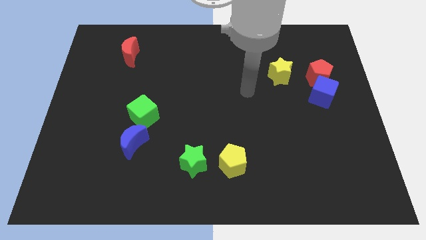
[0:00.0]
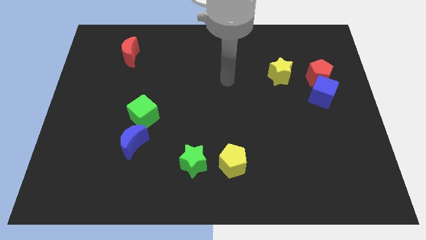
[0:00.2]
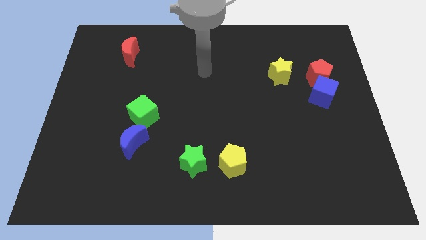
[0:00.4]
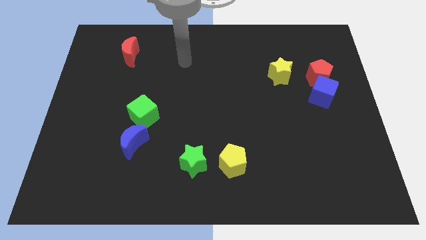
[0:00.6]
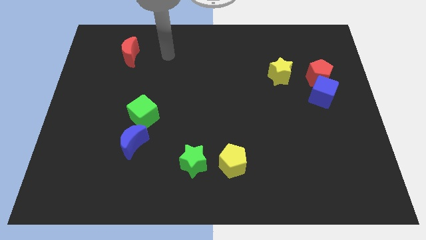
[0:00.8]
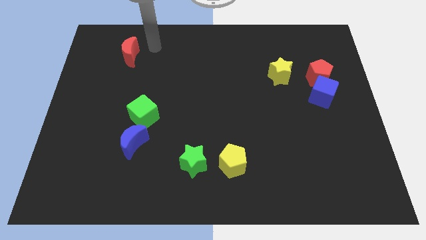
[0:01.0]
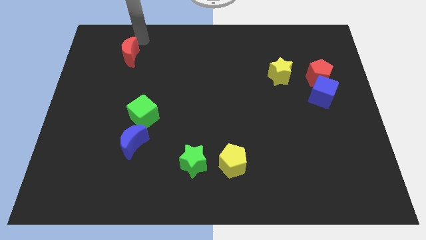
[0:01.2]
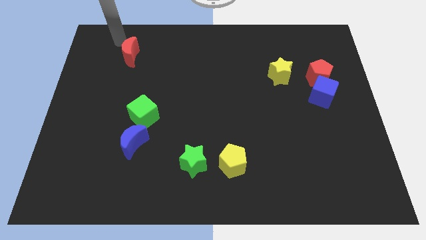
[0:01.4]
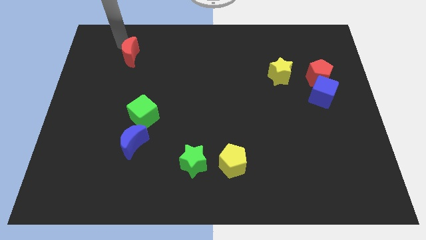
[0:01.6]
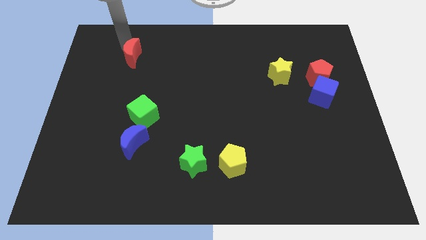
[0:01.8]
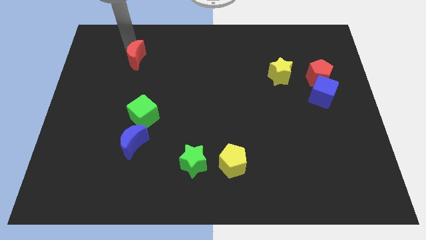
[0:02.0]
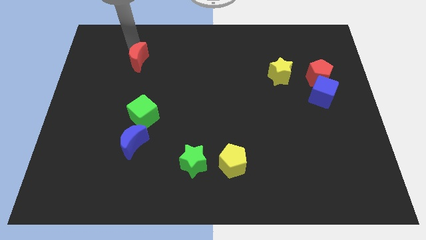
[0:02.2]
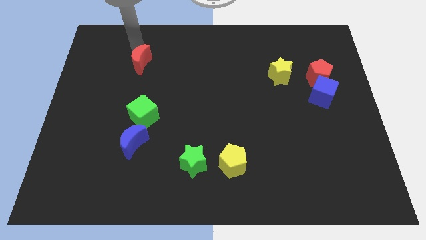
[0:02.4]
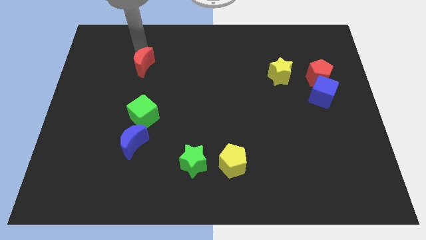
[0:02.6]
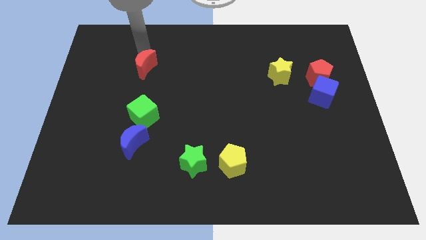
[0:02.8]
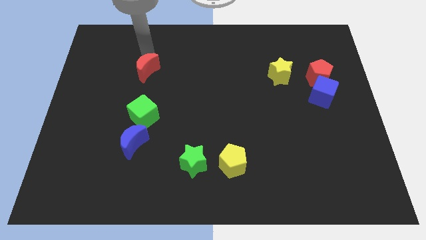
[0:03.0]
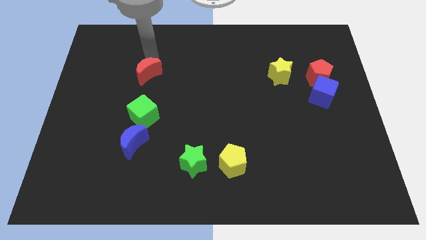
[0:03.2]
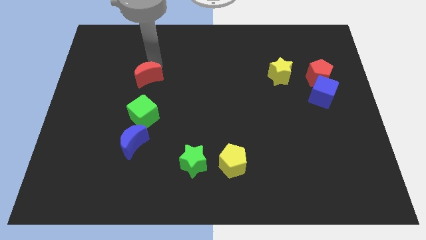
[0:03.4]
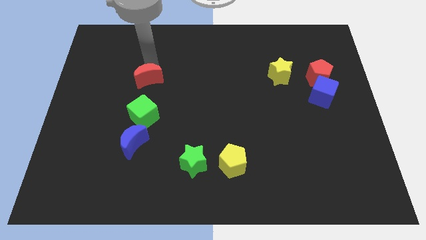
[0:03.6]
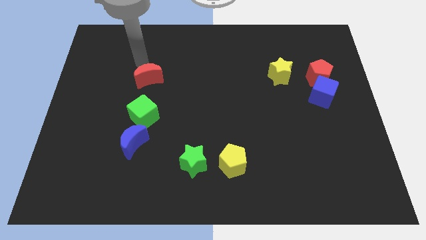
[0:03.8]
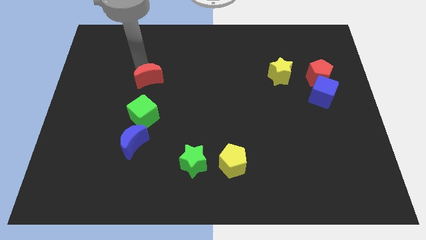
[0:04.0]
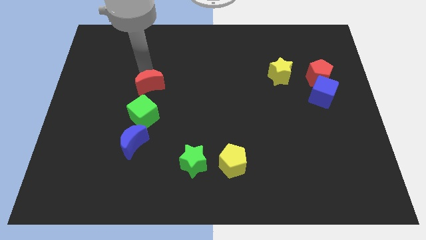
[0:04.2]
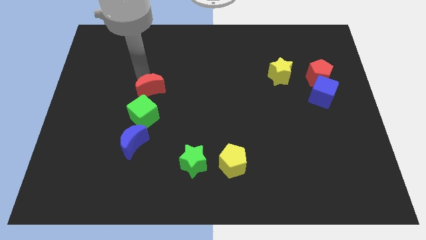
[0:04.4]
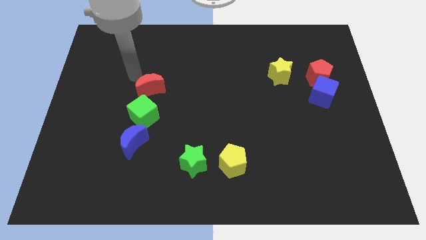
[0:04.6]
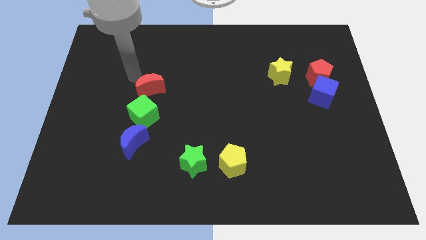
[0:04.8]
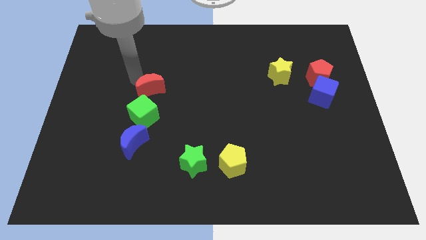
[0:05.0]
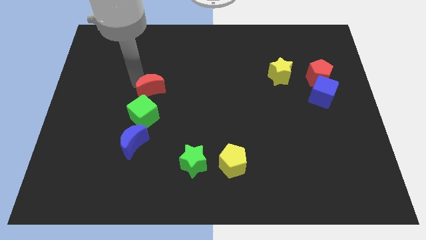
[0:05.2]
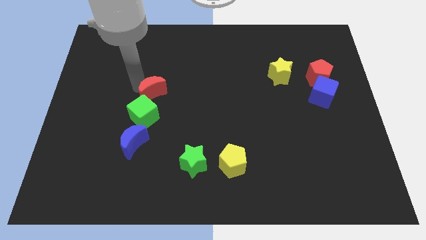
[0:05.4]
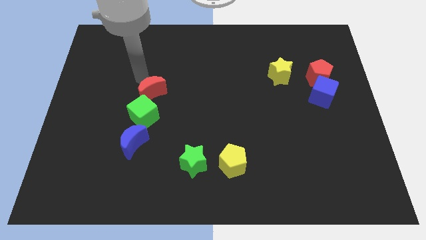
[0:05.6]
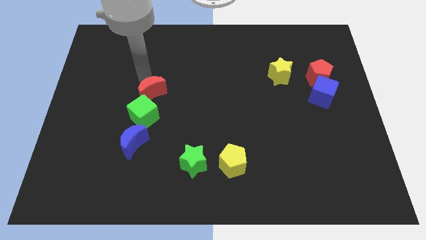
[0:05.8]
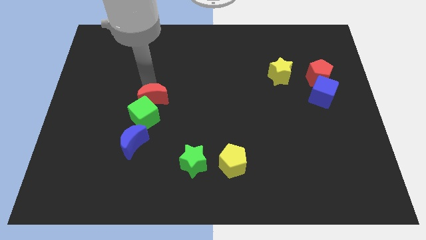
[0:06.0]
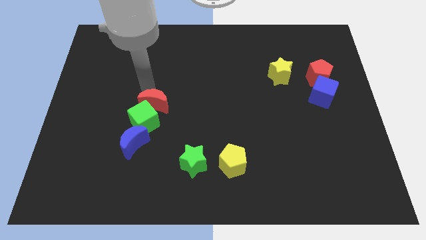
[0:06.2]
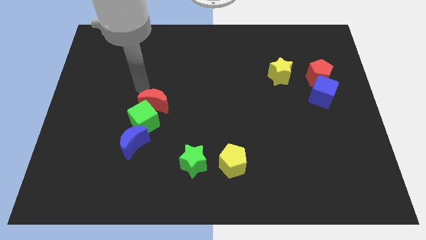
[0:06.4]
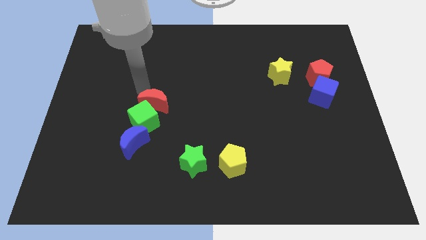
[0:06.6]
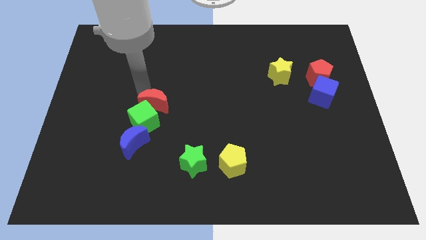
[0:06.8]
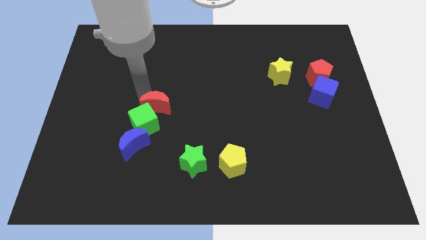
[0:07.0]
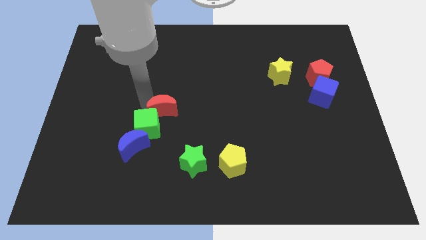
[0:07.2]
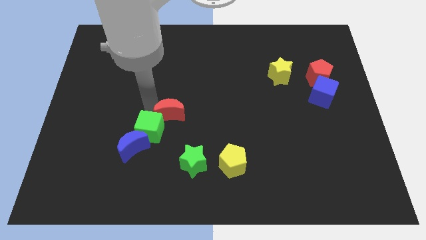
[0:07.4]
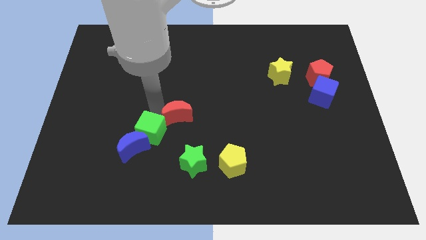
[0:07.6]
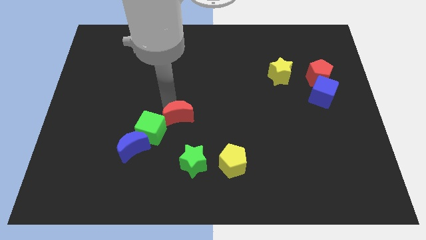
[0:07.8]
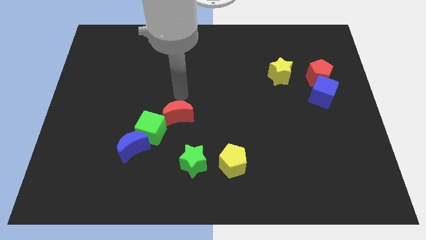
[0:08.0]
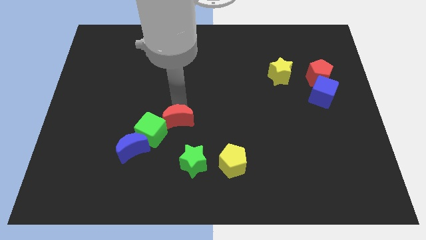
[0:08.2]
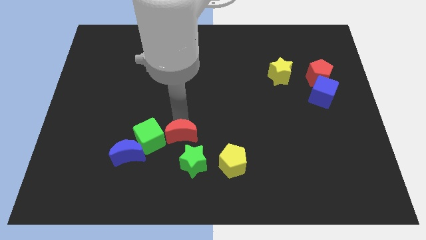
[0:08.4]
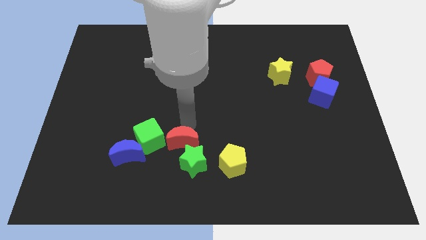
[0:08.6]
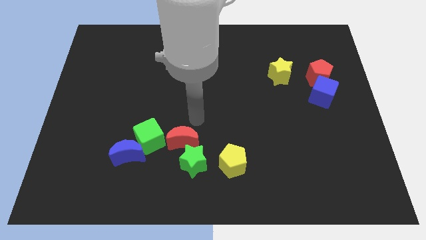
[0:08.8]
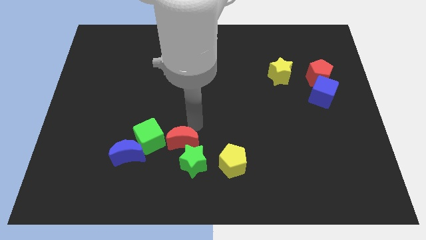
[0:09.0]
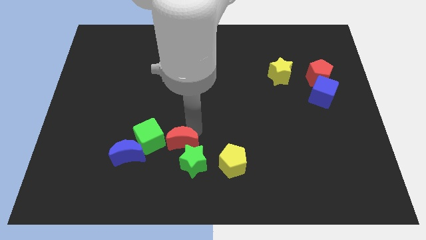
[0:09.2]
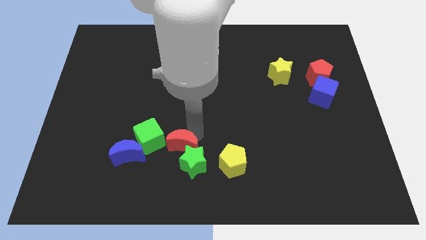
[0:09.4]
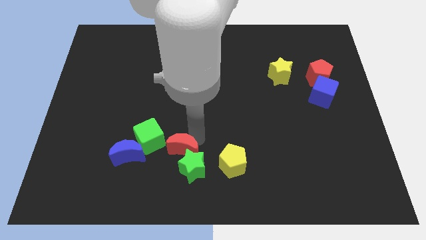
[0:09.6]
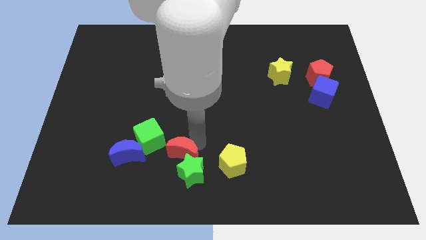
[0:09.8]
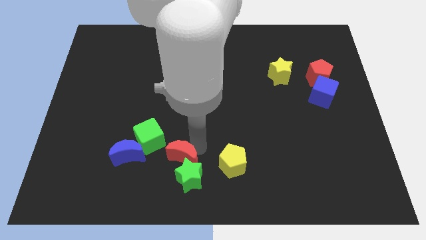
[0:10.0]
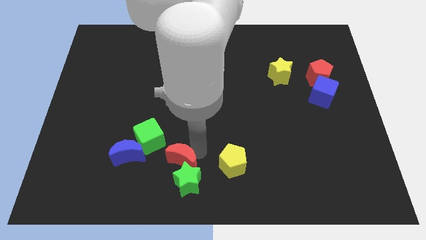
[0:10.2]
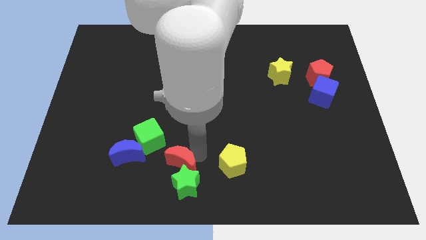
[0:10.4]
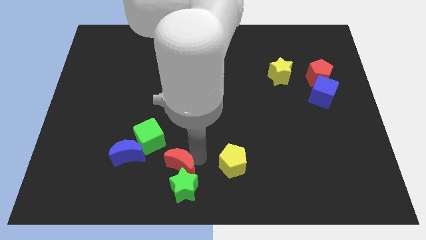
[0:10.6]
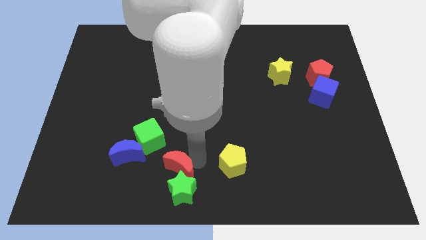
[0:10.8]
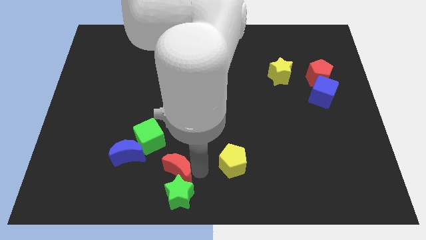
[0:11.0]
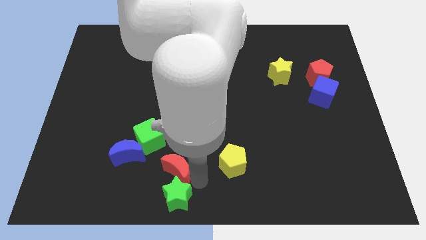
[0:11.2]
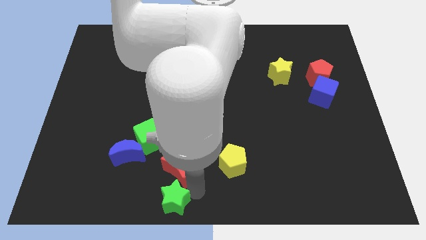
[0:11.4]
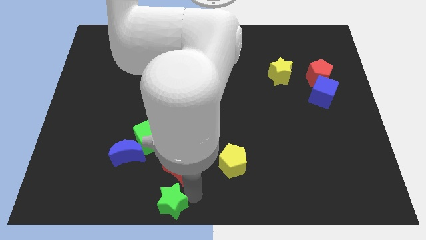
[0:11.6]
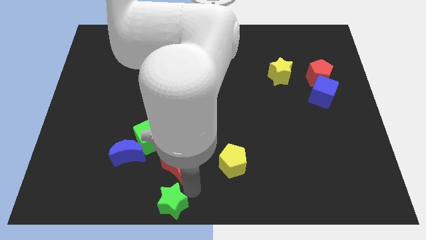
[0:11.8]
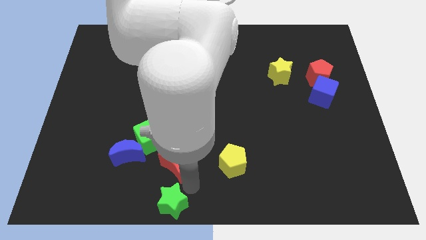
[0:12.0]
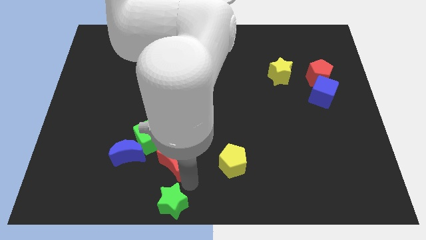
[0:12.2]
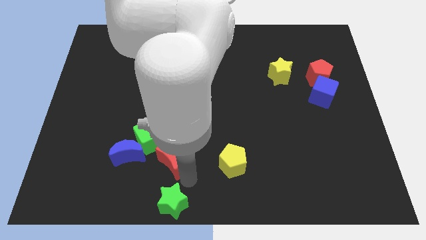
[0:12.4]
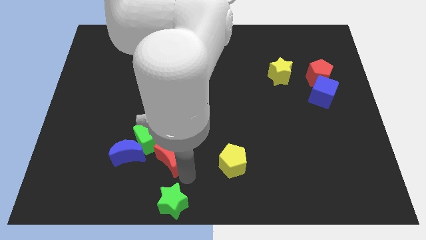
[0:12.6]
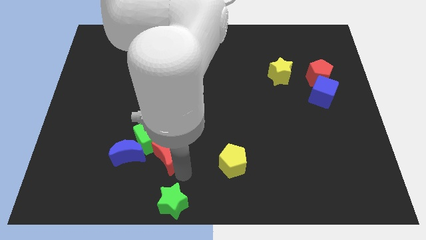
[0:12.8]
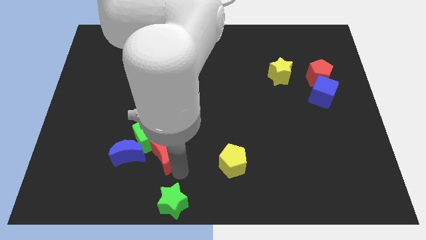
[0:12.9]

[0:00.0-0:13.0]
push the red moon diagonally down and to the right of the green cube
